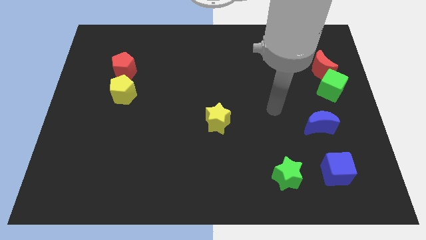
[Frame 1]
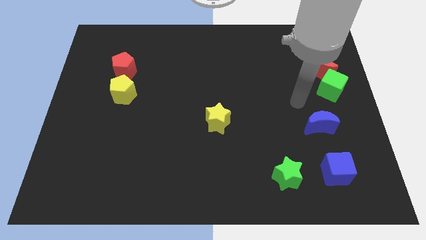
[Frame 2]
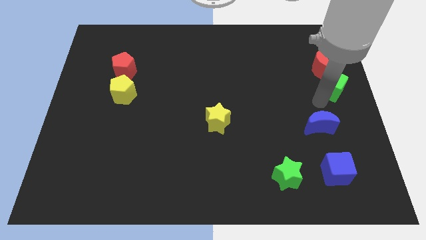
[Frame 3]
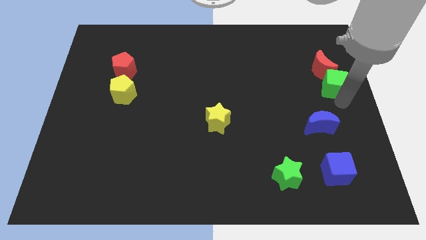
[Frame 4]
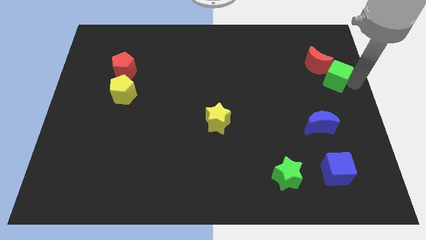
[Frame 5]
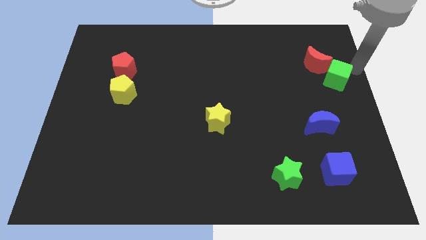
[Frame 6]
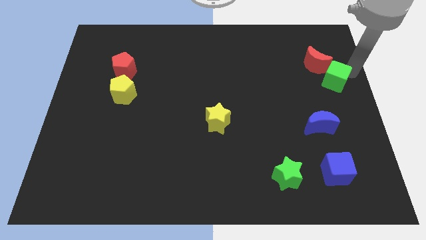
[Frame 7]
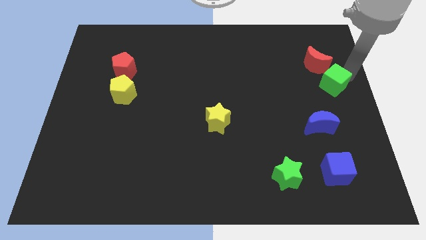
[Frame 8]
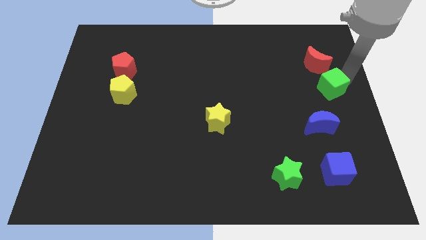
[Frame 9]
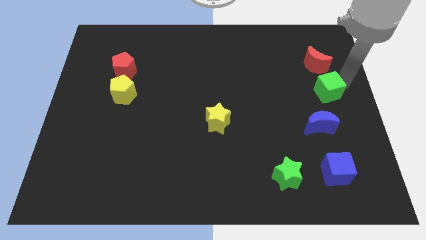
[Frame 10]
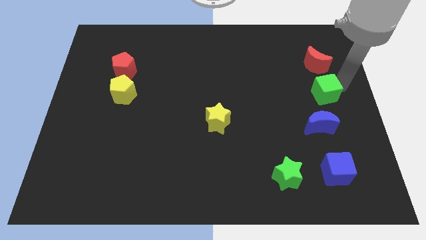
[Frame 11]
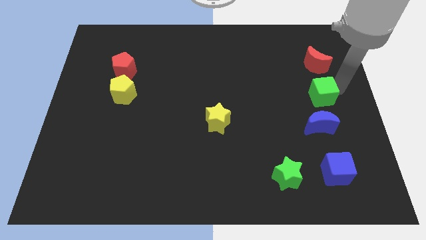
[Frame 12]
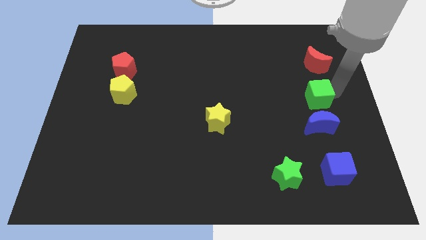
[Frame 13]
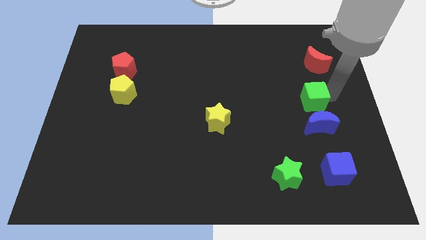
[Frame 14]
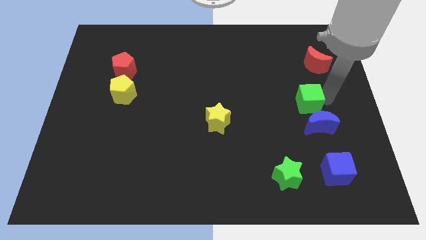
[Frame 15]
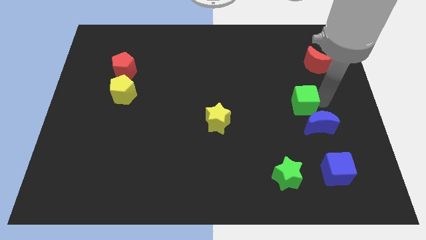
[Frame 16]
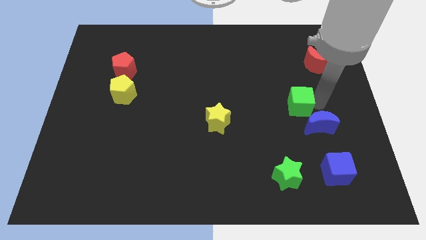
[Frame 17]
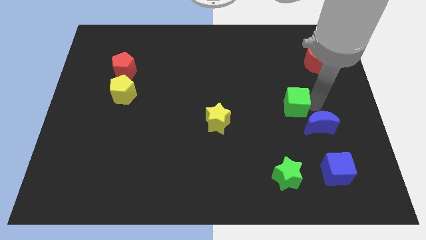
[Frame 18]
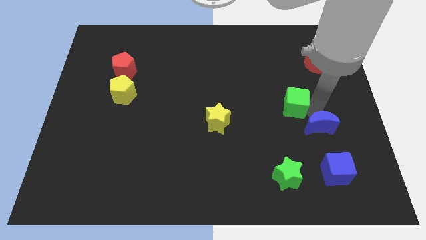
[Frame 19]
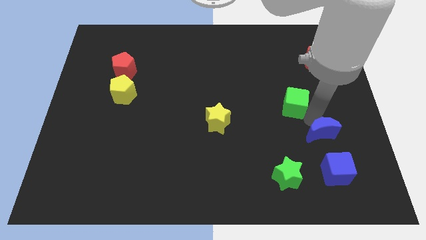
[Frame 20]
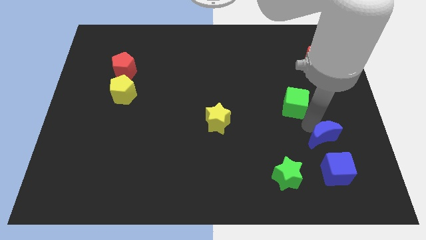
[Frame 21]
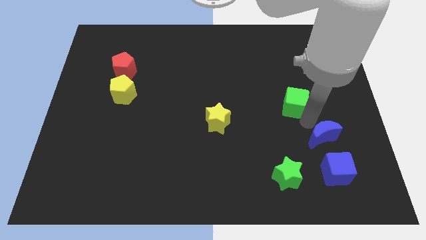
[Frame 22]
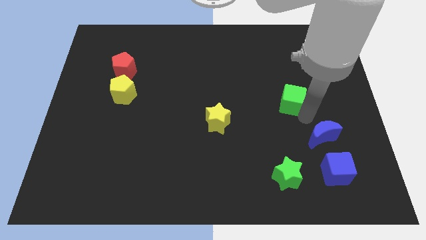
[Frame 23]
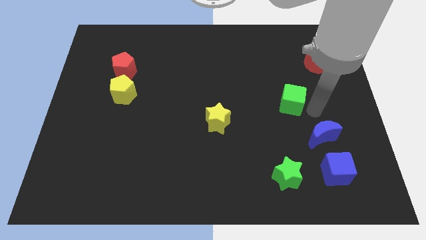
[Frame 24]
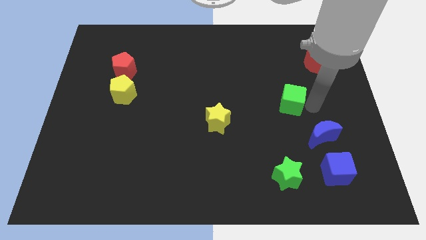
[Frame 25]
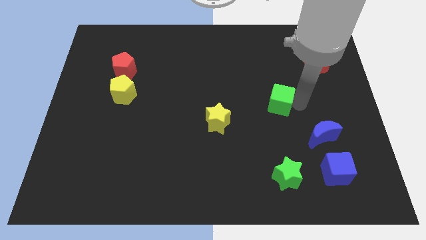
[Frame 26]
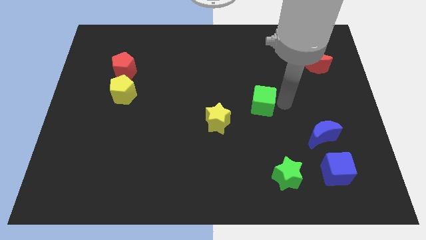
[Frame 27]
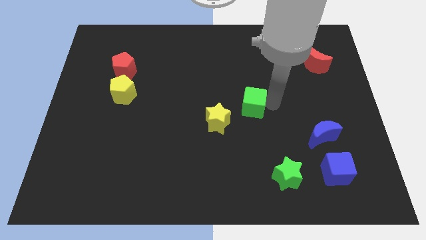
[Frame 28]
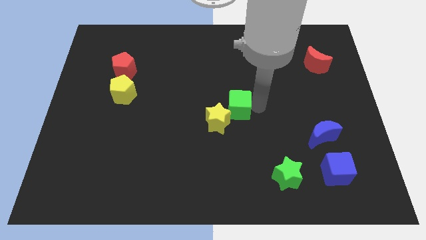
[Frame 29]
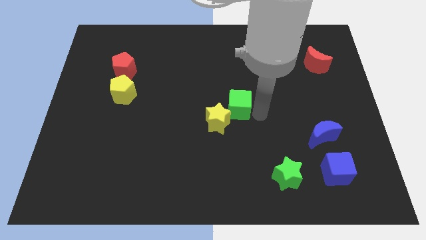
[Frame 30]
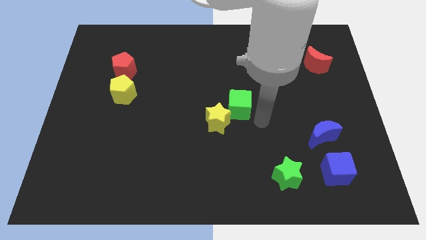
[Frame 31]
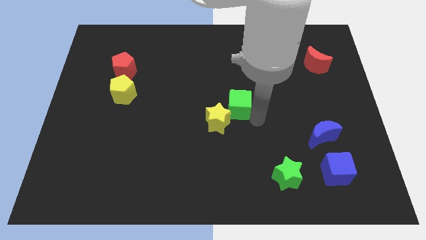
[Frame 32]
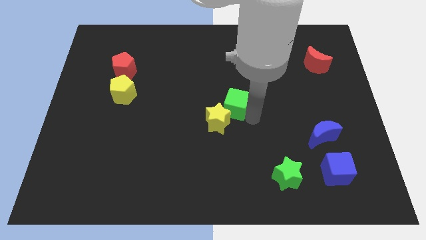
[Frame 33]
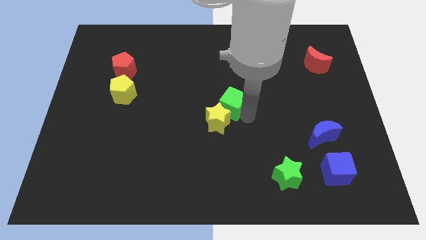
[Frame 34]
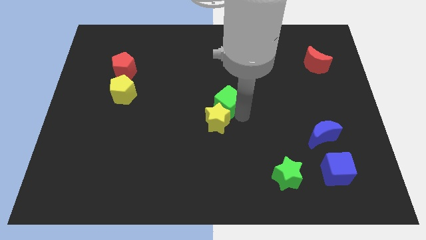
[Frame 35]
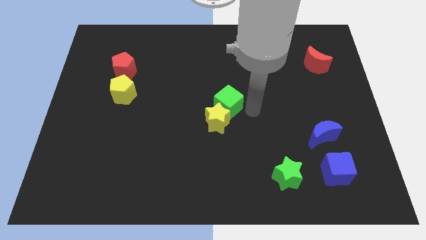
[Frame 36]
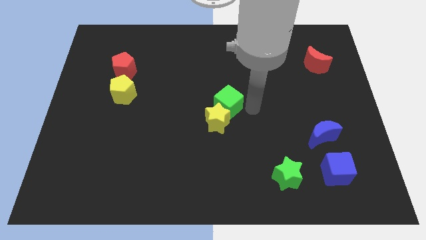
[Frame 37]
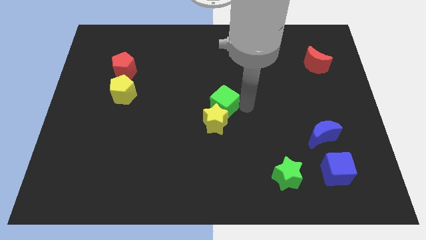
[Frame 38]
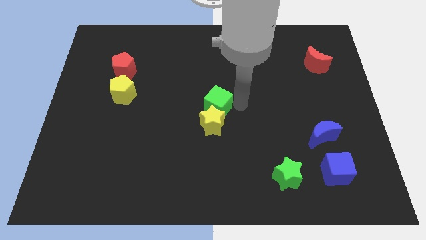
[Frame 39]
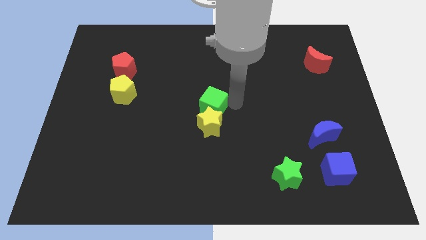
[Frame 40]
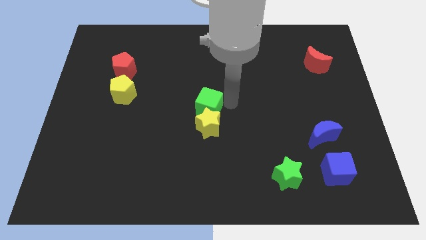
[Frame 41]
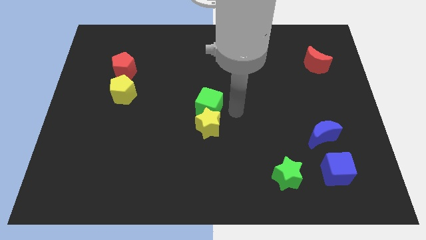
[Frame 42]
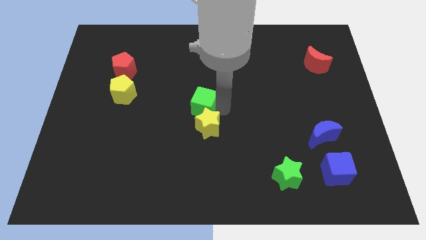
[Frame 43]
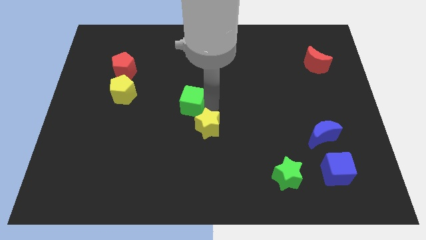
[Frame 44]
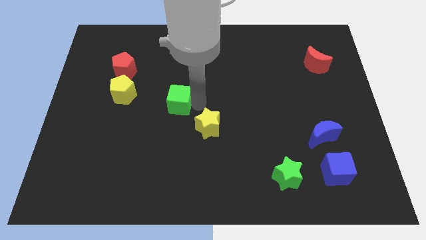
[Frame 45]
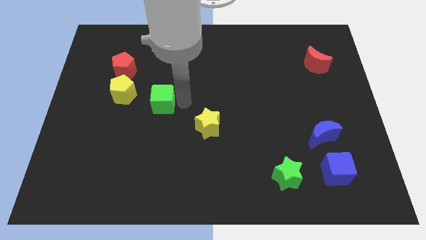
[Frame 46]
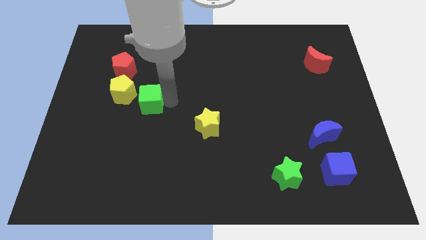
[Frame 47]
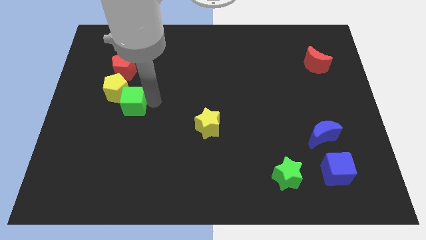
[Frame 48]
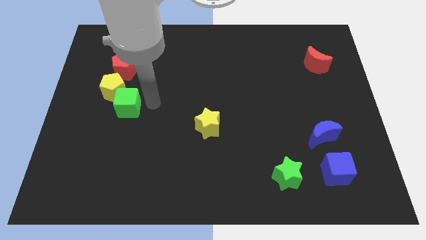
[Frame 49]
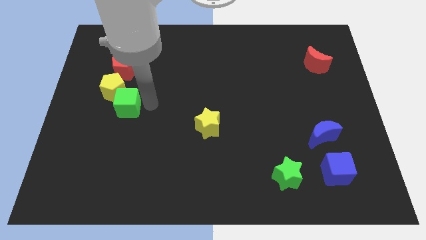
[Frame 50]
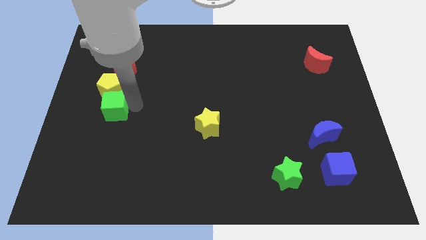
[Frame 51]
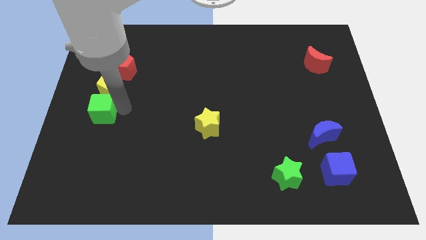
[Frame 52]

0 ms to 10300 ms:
move the green cube to the center left

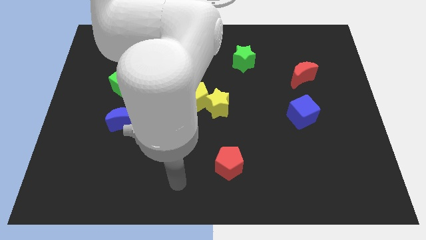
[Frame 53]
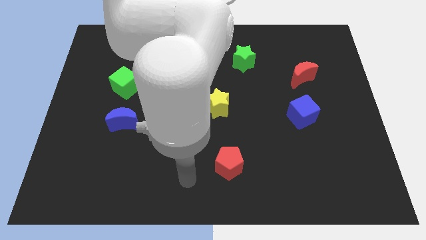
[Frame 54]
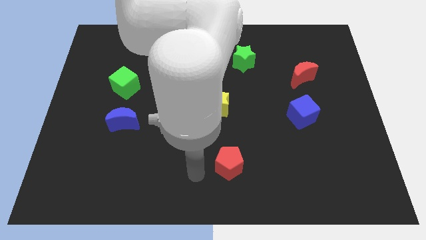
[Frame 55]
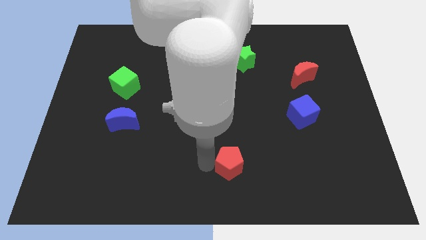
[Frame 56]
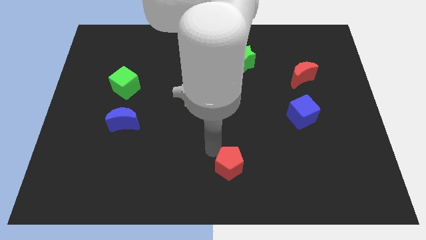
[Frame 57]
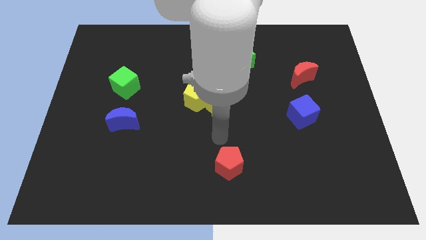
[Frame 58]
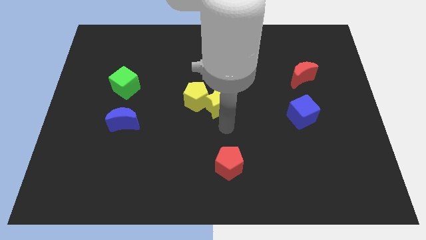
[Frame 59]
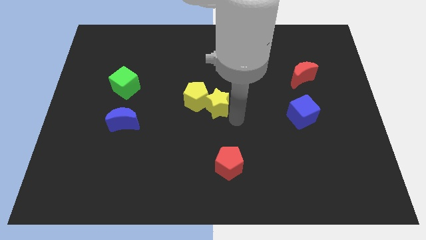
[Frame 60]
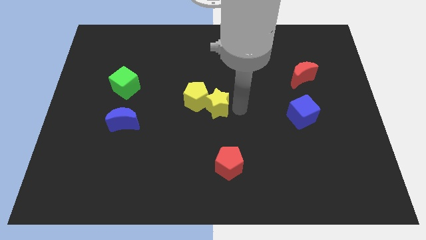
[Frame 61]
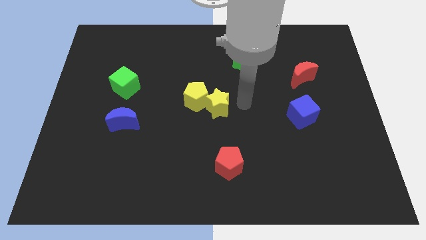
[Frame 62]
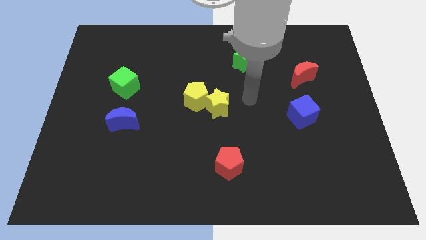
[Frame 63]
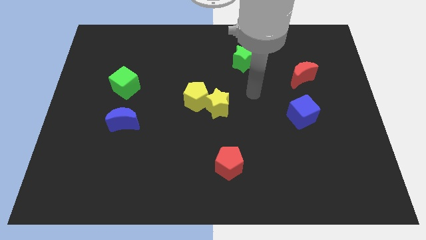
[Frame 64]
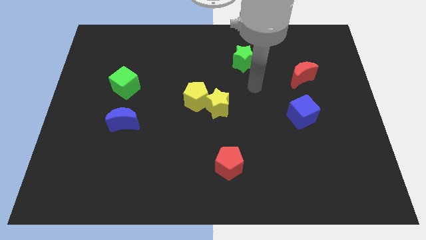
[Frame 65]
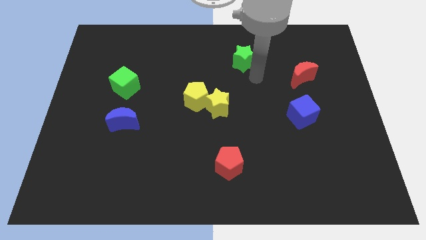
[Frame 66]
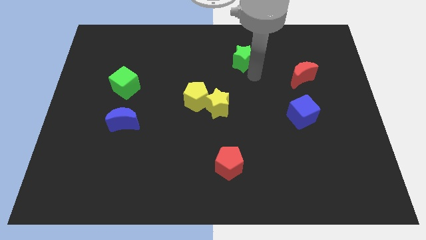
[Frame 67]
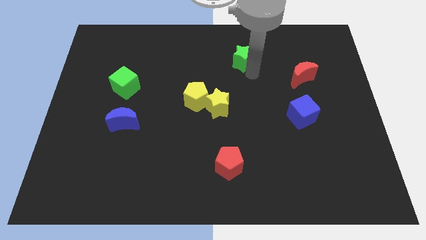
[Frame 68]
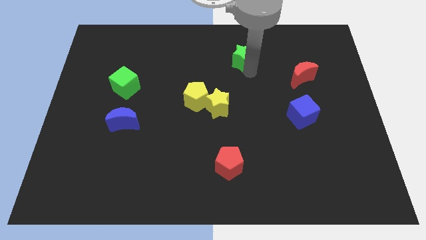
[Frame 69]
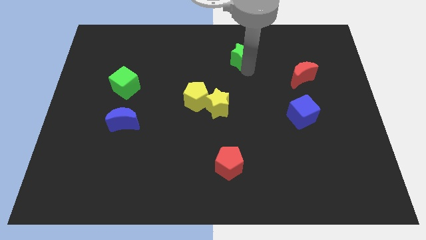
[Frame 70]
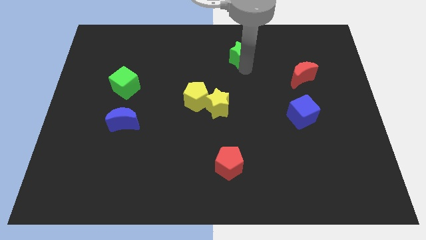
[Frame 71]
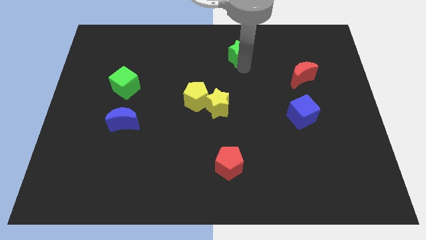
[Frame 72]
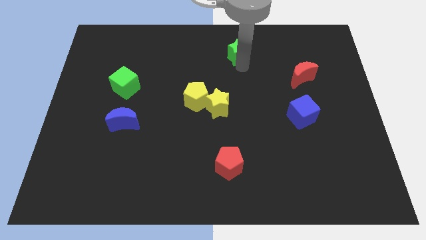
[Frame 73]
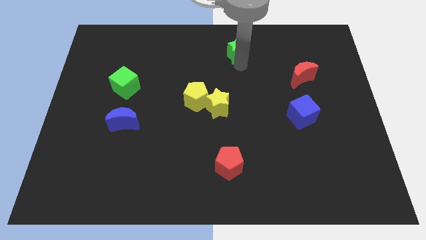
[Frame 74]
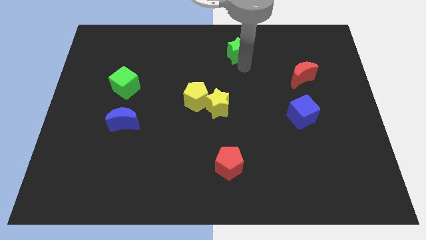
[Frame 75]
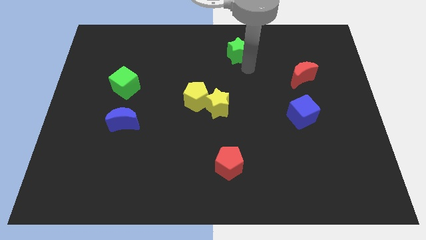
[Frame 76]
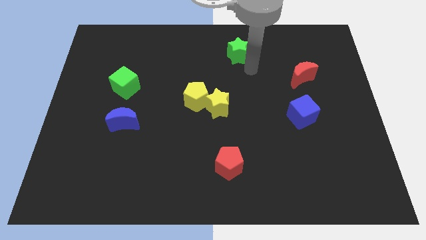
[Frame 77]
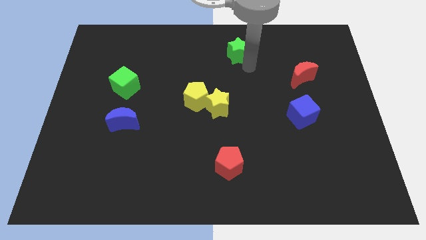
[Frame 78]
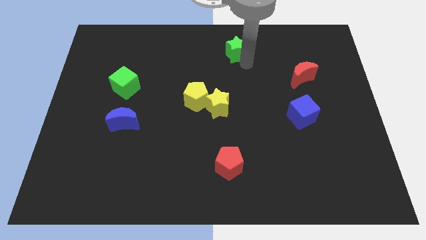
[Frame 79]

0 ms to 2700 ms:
move the green star to the towards your base
